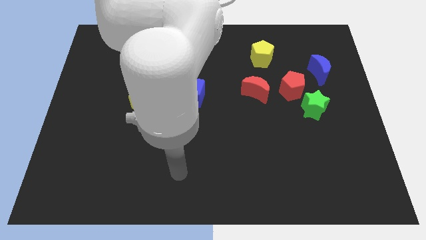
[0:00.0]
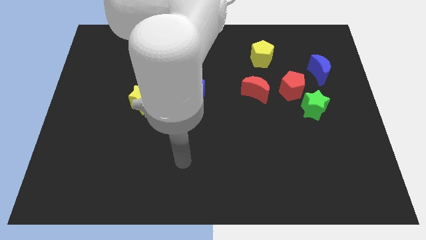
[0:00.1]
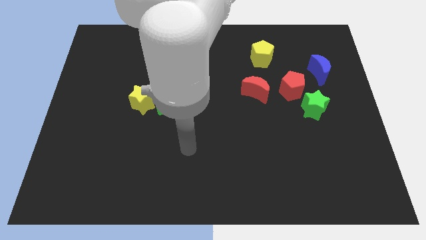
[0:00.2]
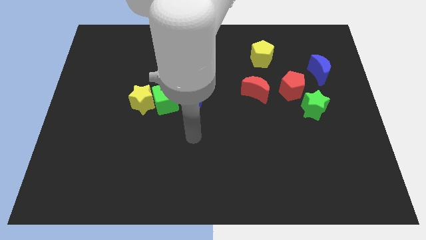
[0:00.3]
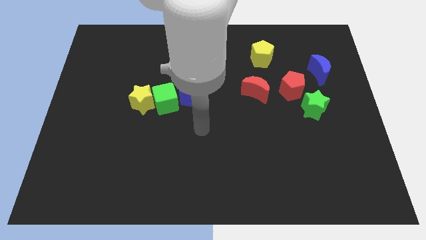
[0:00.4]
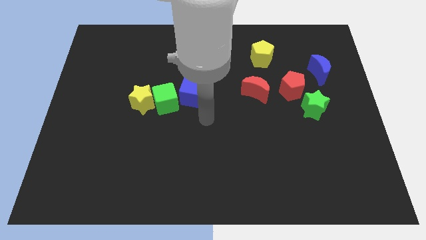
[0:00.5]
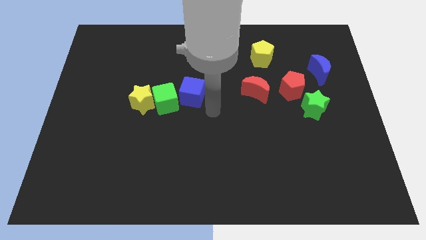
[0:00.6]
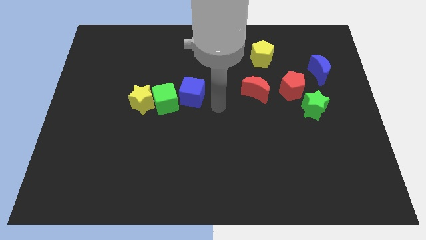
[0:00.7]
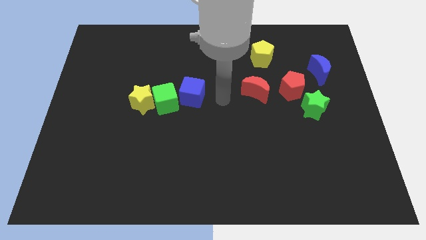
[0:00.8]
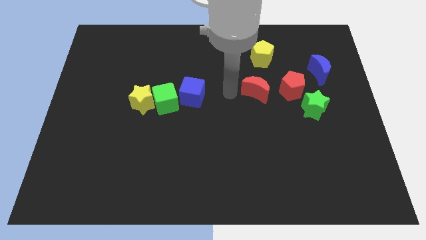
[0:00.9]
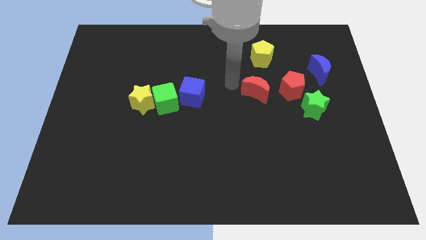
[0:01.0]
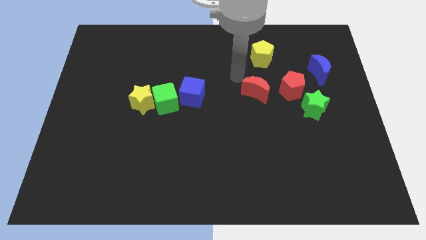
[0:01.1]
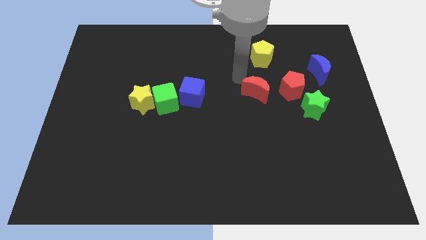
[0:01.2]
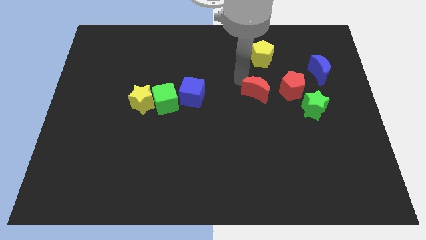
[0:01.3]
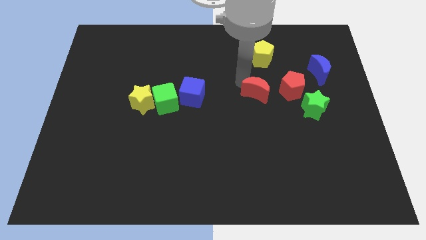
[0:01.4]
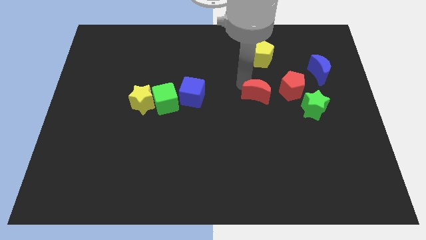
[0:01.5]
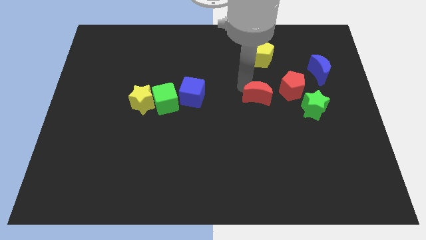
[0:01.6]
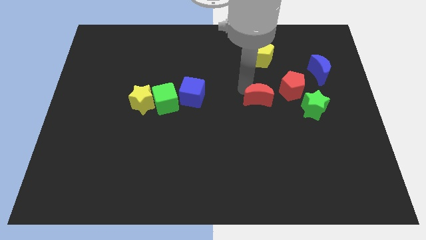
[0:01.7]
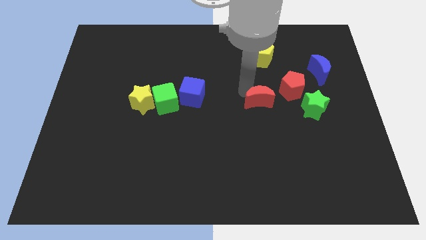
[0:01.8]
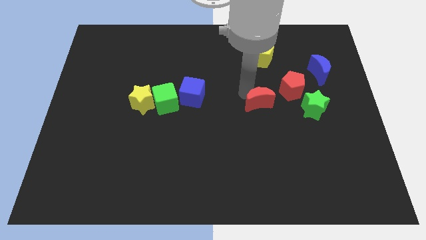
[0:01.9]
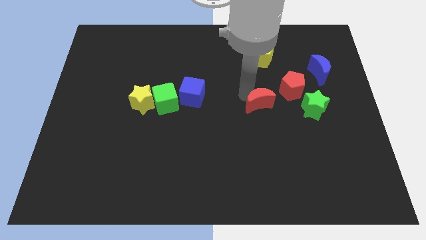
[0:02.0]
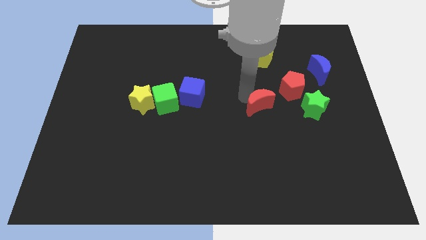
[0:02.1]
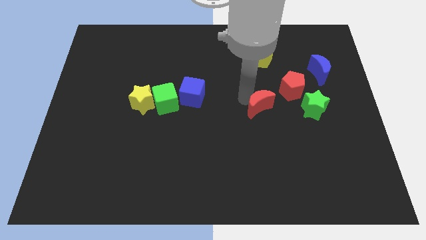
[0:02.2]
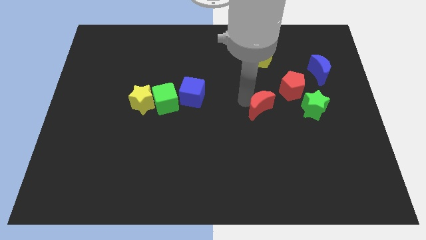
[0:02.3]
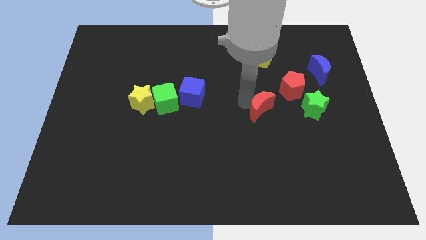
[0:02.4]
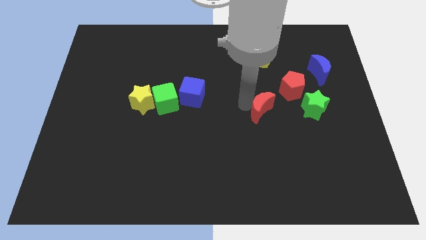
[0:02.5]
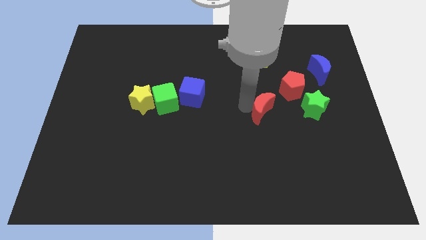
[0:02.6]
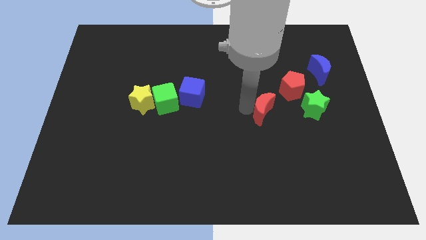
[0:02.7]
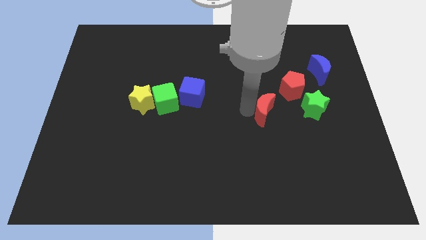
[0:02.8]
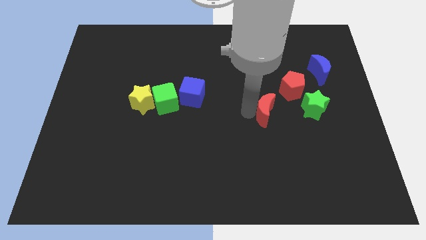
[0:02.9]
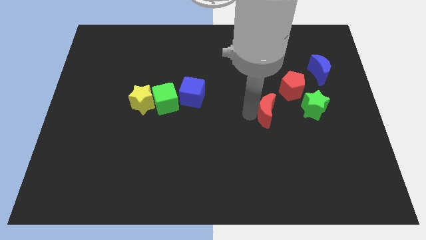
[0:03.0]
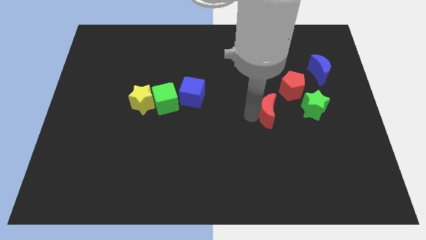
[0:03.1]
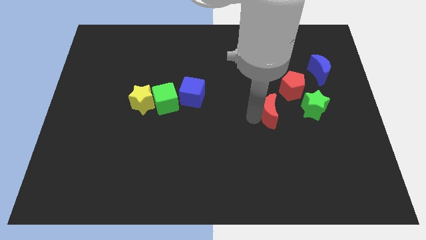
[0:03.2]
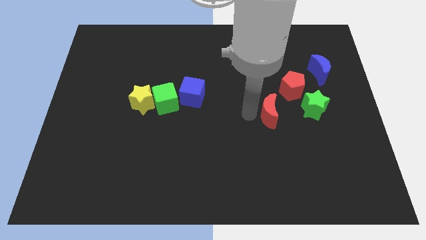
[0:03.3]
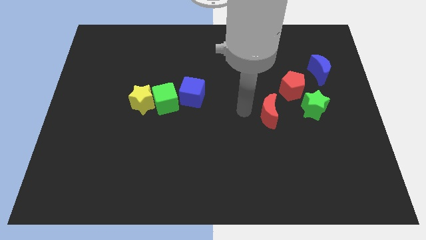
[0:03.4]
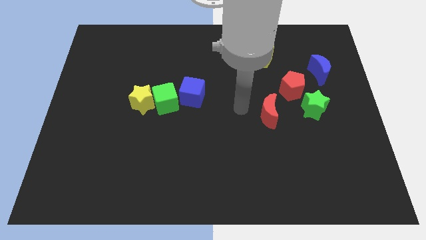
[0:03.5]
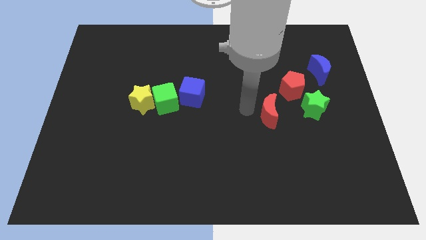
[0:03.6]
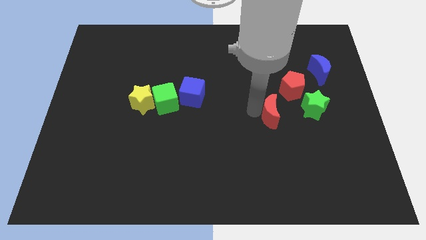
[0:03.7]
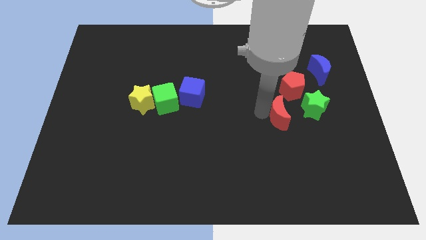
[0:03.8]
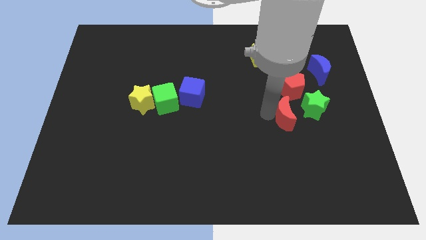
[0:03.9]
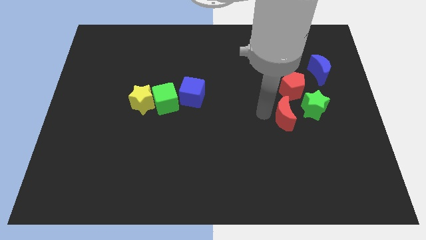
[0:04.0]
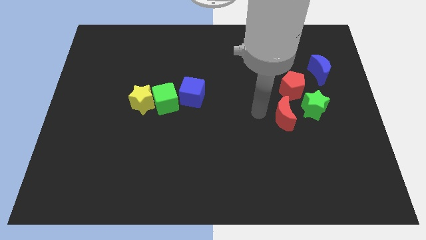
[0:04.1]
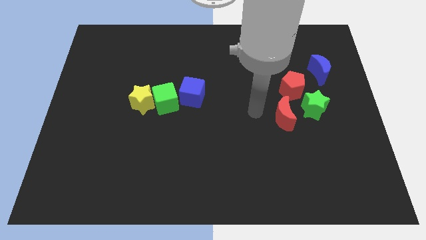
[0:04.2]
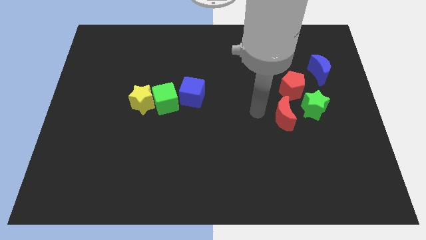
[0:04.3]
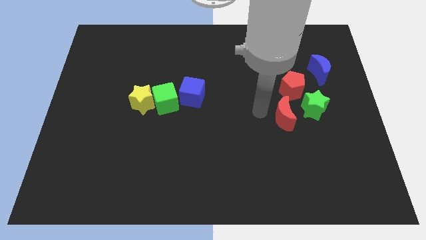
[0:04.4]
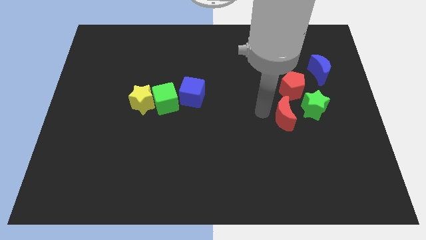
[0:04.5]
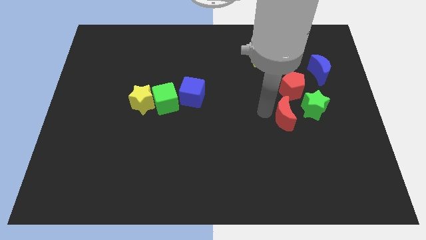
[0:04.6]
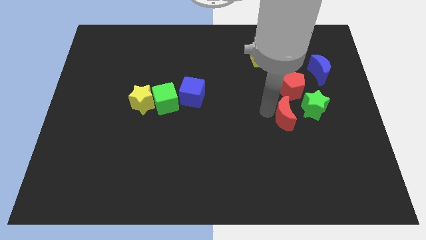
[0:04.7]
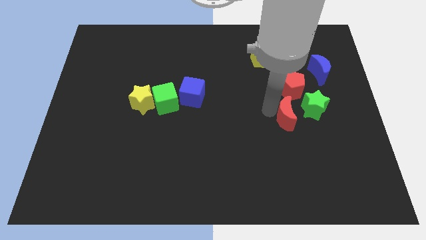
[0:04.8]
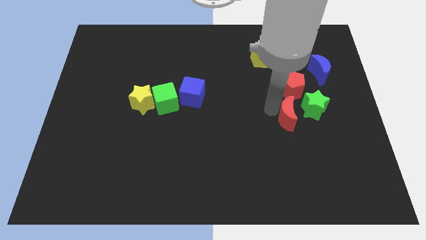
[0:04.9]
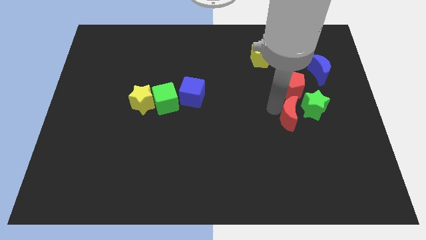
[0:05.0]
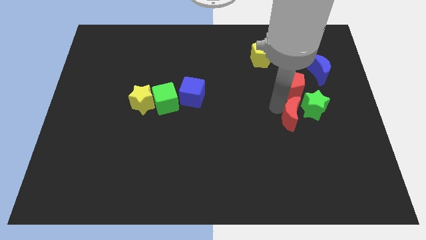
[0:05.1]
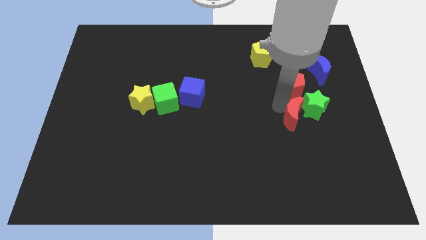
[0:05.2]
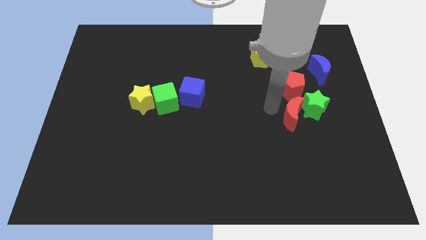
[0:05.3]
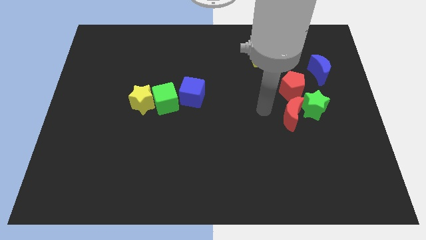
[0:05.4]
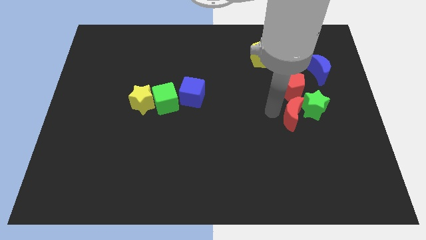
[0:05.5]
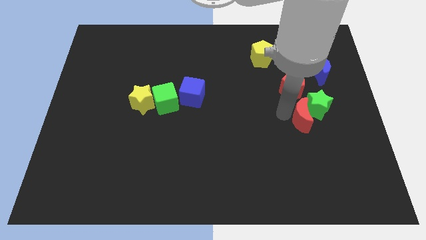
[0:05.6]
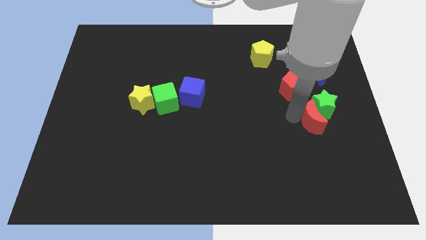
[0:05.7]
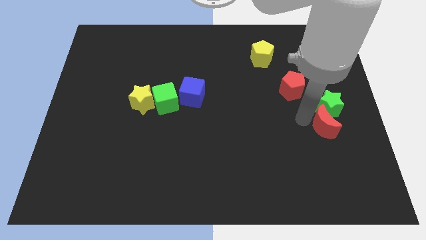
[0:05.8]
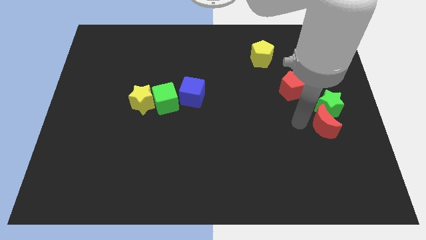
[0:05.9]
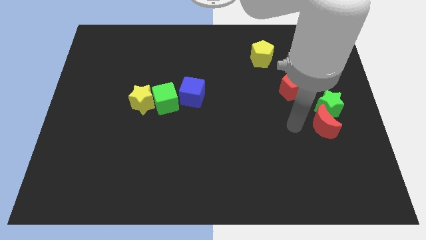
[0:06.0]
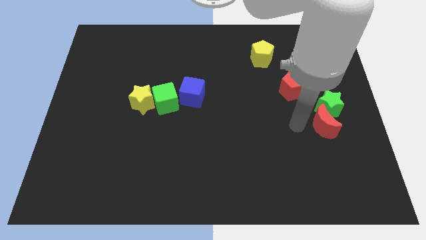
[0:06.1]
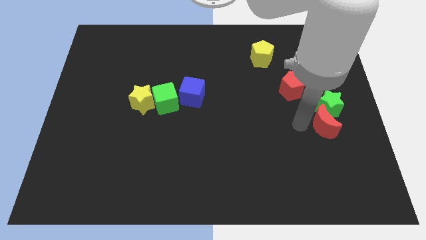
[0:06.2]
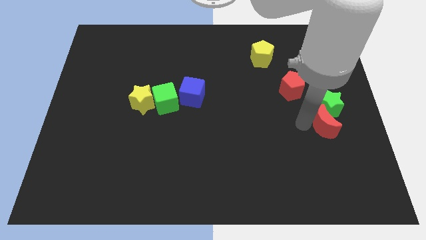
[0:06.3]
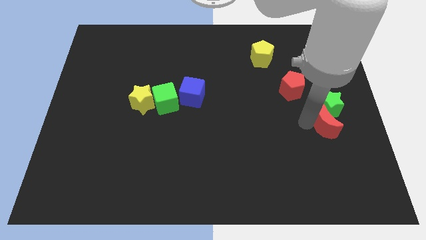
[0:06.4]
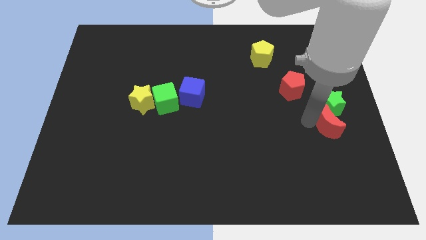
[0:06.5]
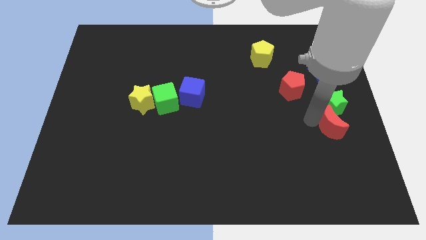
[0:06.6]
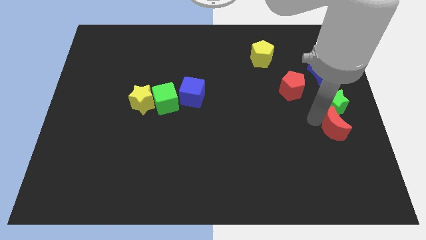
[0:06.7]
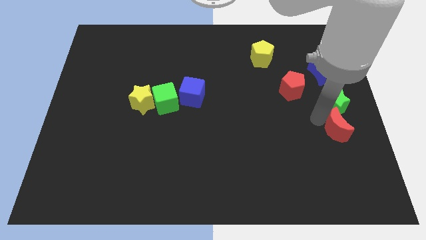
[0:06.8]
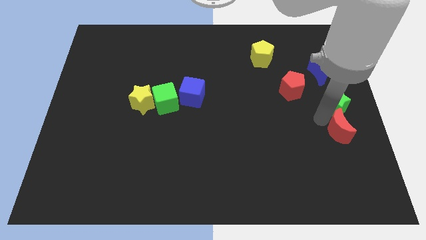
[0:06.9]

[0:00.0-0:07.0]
slide the red moon diagonally down and to the right of the green star
